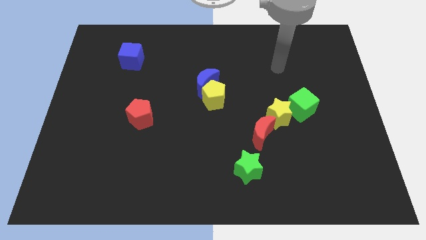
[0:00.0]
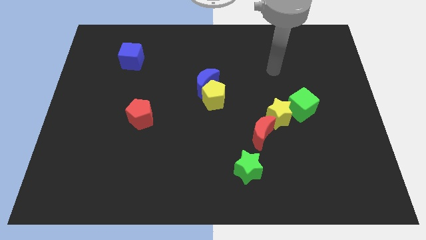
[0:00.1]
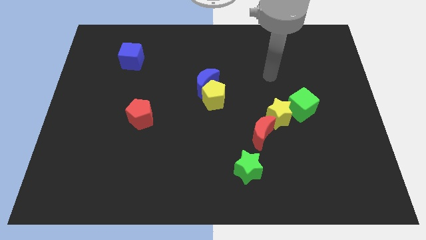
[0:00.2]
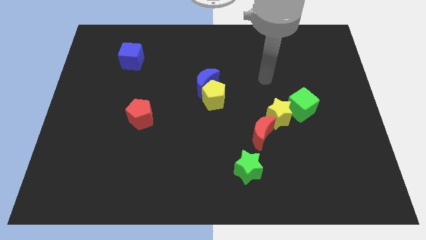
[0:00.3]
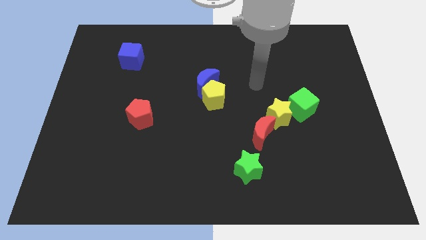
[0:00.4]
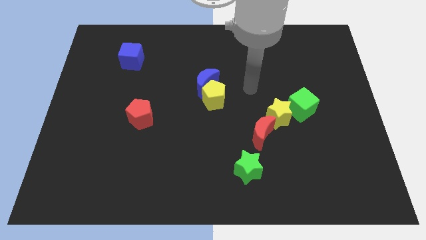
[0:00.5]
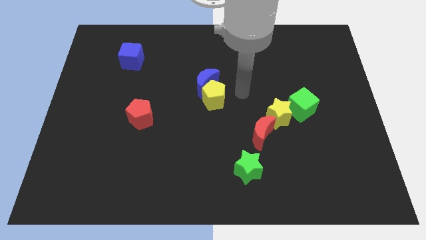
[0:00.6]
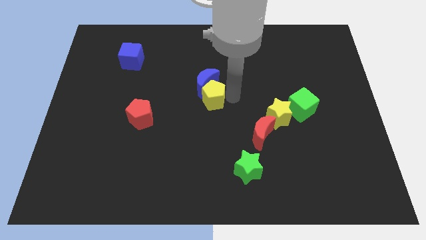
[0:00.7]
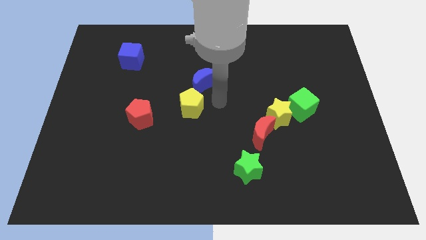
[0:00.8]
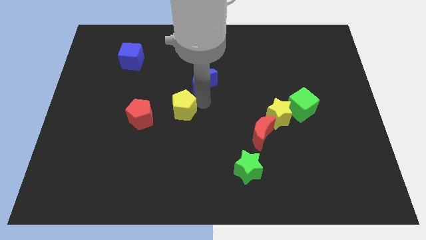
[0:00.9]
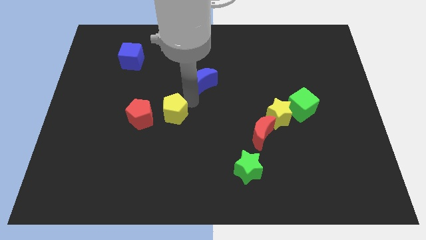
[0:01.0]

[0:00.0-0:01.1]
pull the blue moon apart from the yellow pentagon

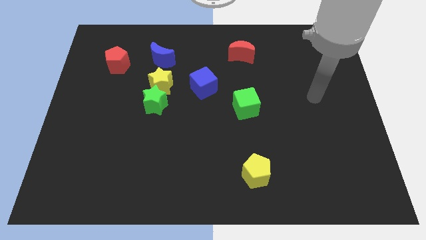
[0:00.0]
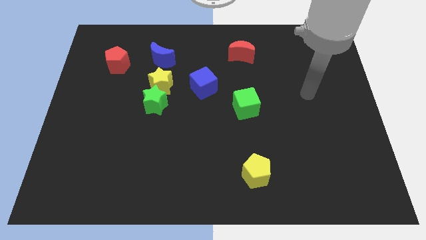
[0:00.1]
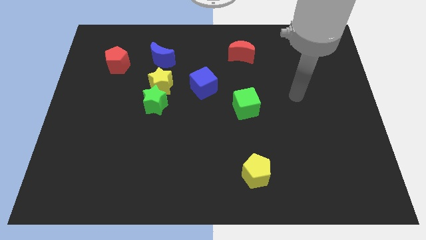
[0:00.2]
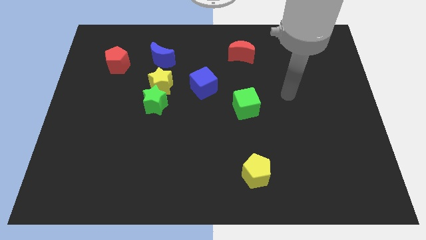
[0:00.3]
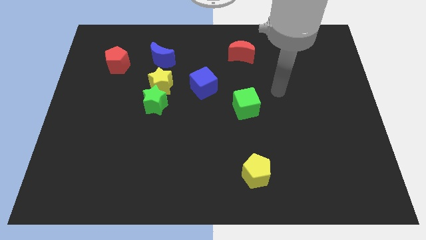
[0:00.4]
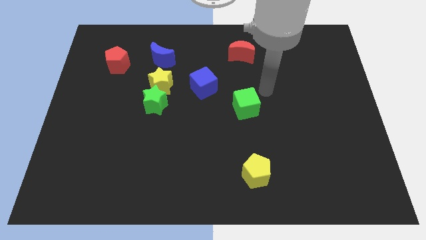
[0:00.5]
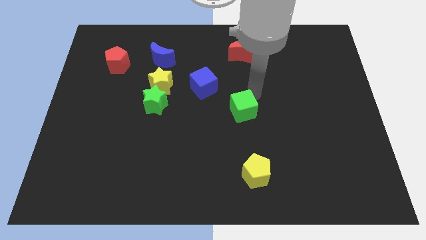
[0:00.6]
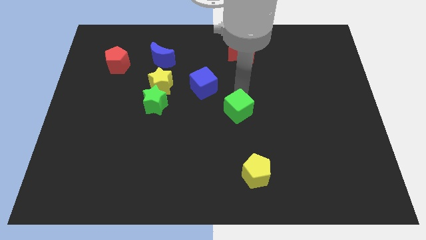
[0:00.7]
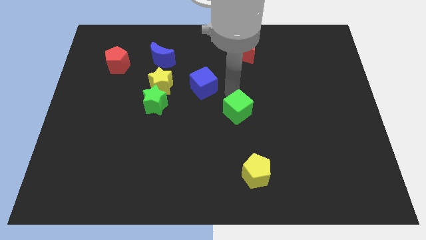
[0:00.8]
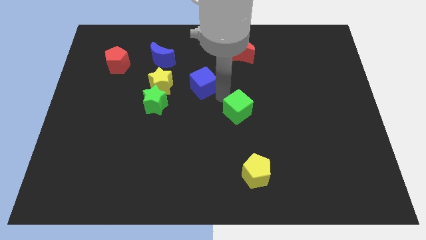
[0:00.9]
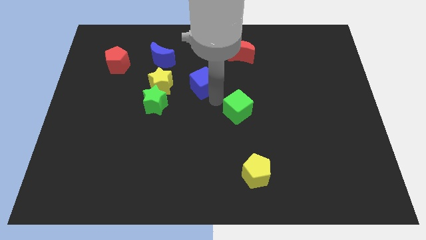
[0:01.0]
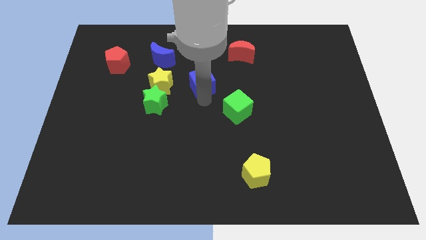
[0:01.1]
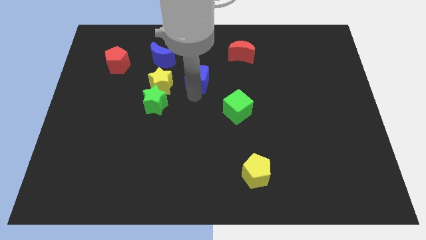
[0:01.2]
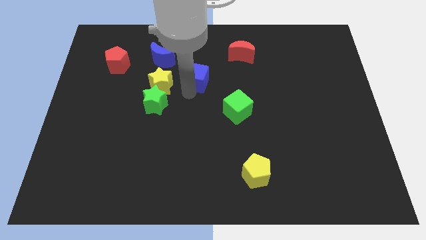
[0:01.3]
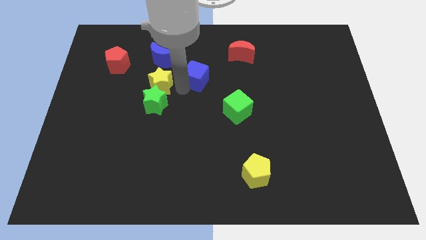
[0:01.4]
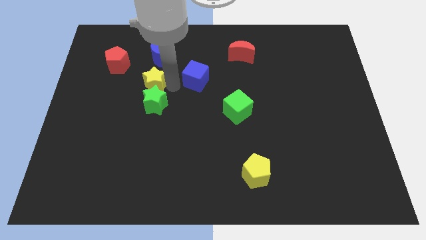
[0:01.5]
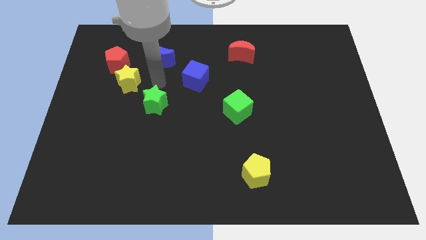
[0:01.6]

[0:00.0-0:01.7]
pull the green star apart from the yellow star

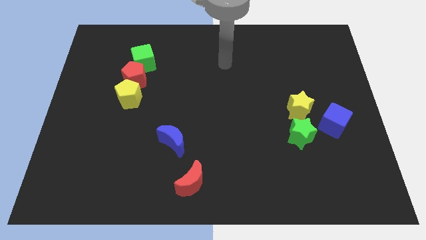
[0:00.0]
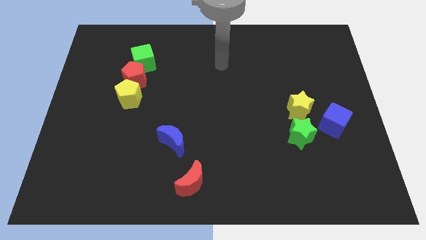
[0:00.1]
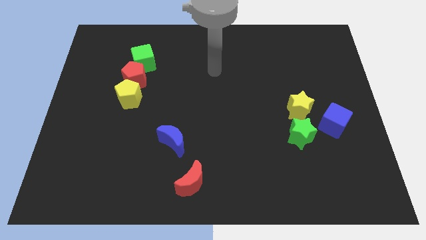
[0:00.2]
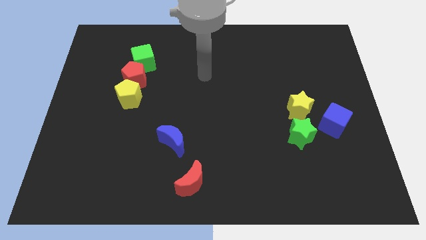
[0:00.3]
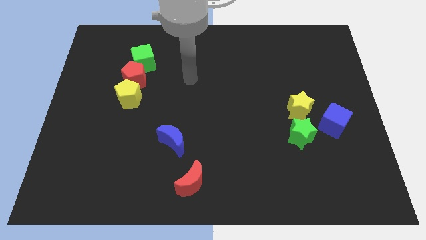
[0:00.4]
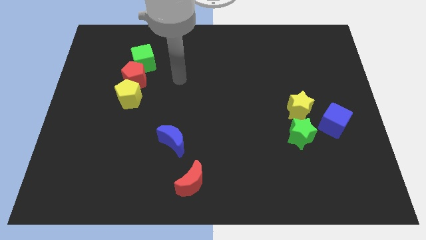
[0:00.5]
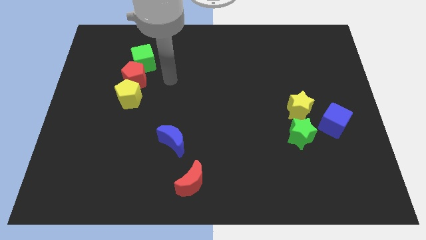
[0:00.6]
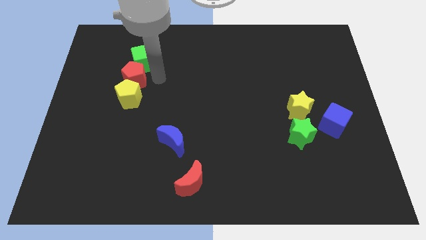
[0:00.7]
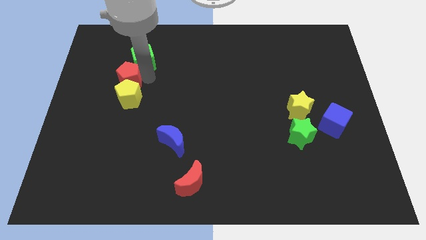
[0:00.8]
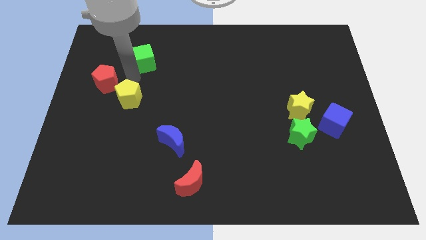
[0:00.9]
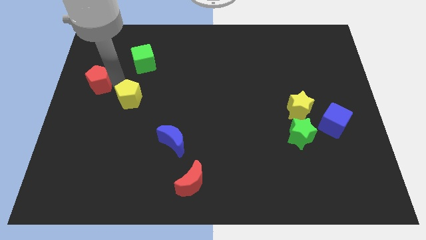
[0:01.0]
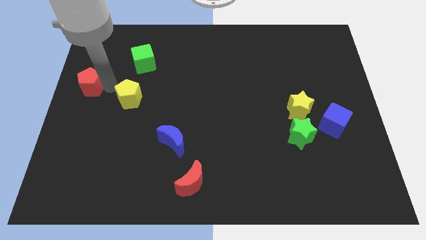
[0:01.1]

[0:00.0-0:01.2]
move the yellow pentagon away from the red pentagon

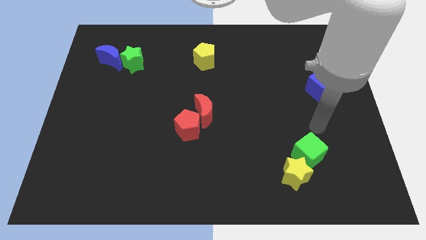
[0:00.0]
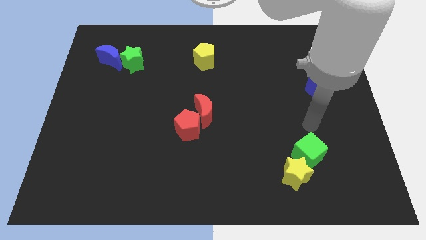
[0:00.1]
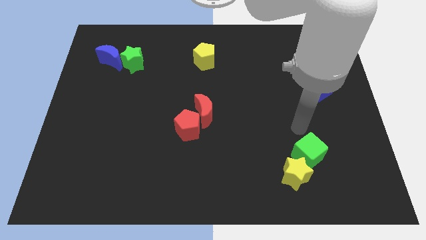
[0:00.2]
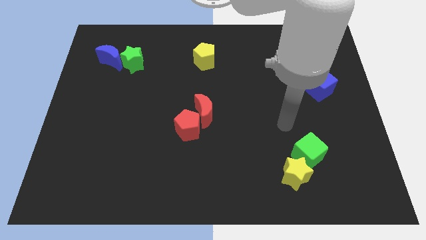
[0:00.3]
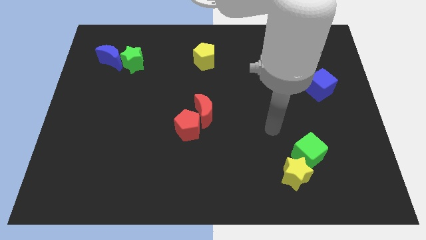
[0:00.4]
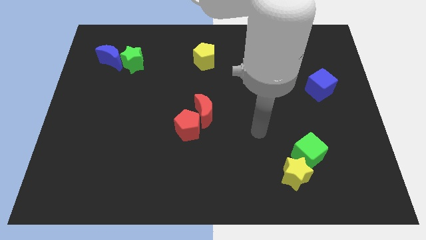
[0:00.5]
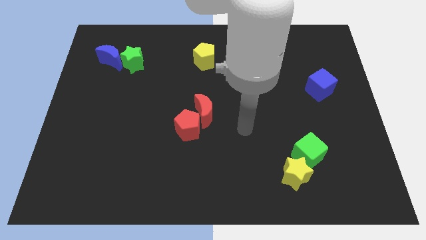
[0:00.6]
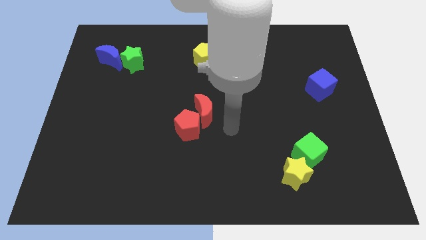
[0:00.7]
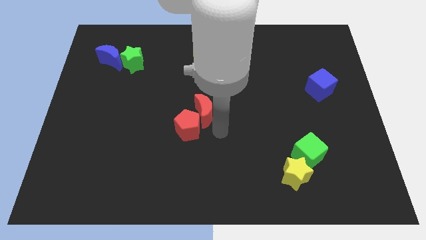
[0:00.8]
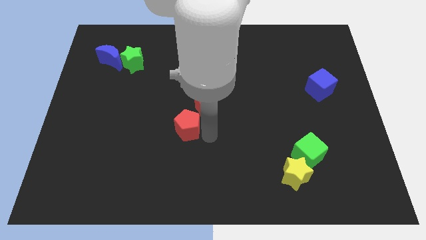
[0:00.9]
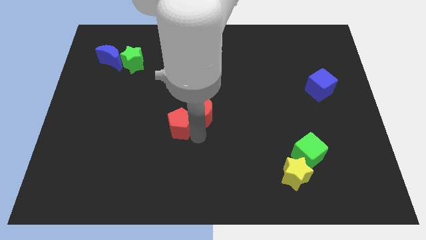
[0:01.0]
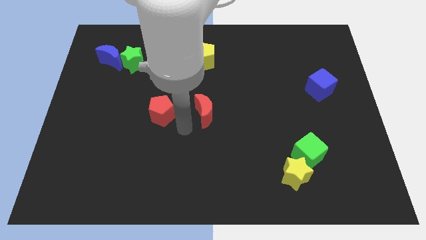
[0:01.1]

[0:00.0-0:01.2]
pull the red moon apart from the red pentagon

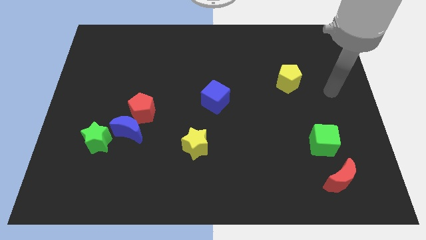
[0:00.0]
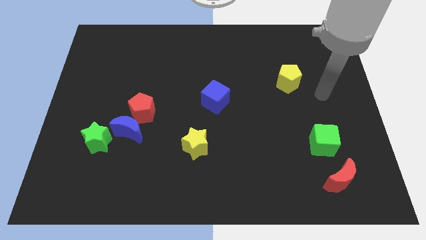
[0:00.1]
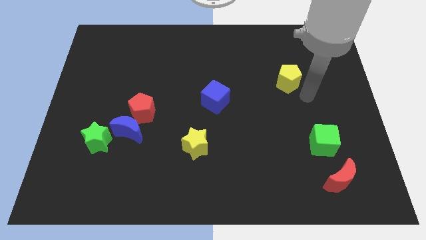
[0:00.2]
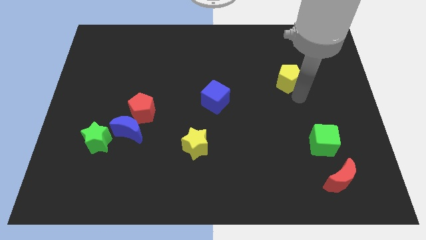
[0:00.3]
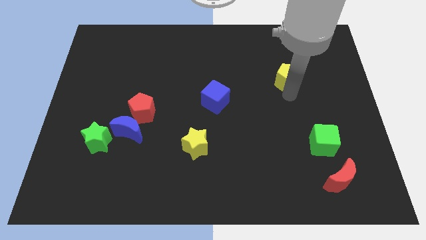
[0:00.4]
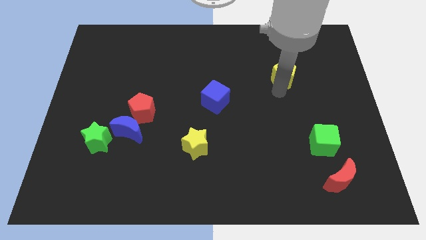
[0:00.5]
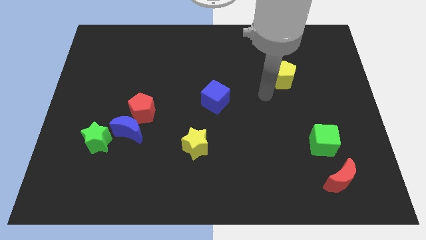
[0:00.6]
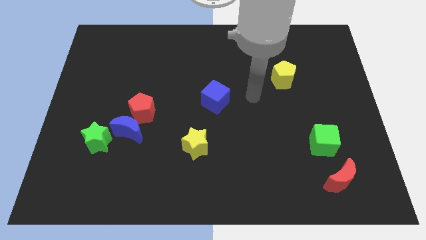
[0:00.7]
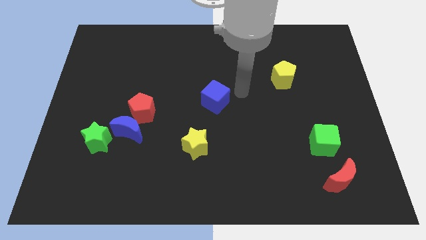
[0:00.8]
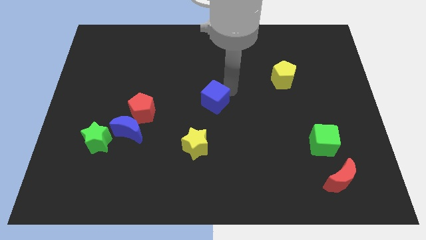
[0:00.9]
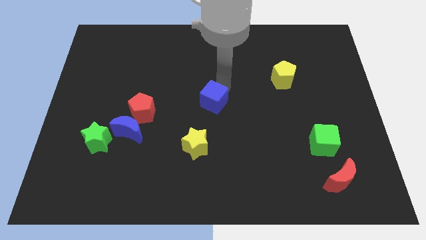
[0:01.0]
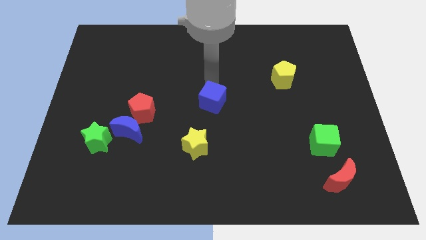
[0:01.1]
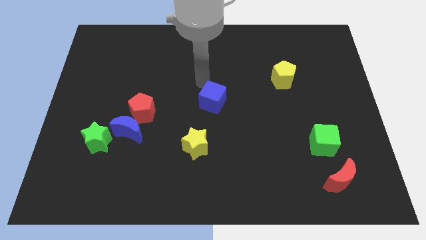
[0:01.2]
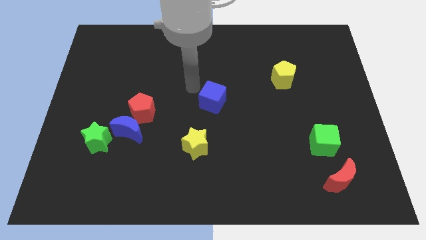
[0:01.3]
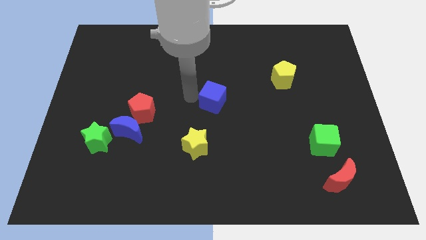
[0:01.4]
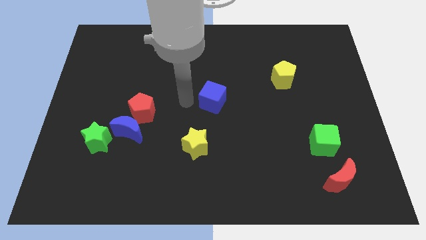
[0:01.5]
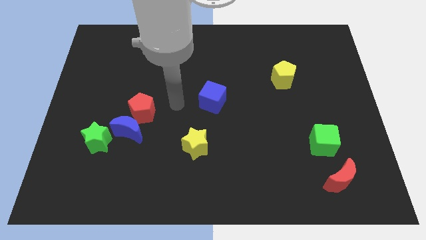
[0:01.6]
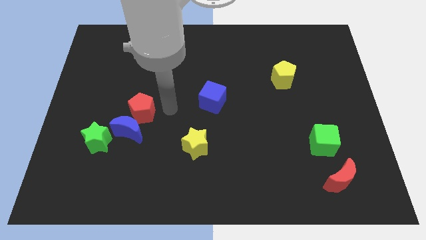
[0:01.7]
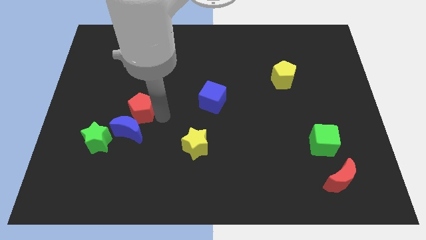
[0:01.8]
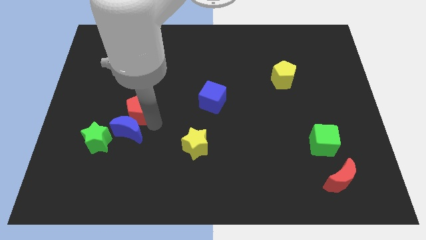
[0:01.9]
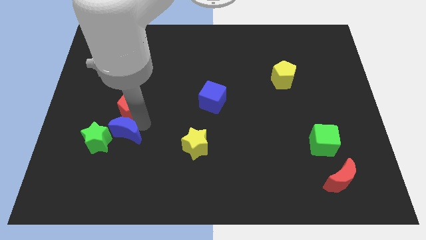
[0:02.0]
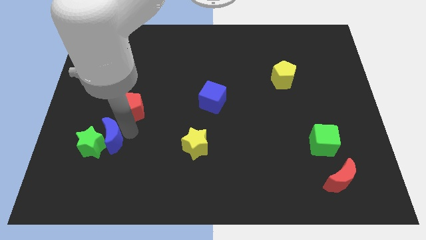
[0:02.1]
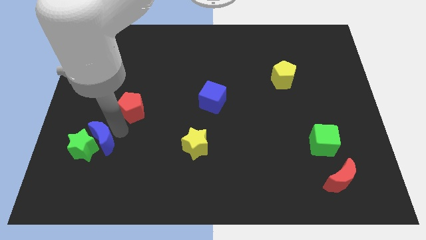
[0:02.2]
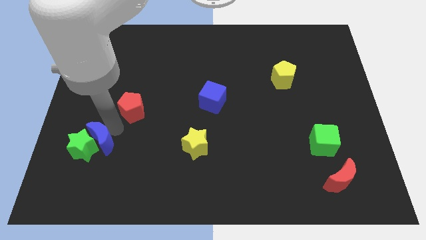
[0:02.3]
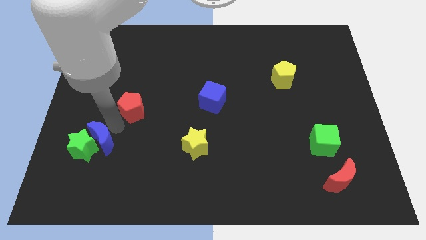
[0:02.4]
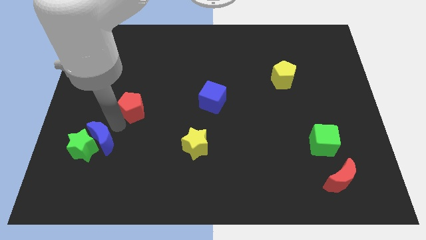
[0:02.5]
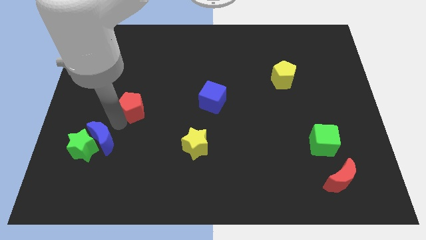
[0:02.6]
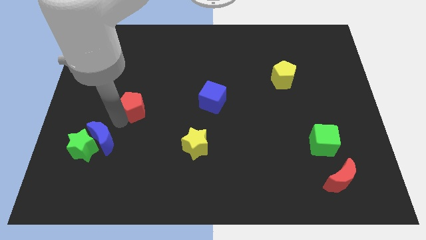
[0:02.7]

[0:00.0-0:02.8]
separate the red pentagon from the blue moon

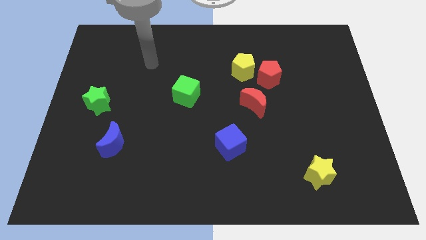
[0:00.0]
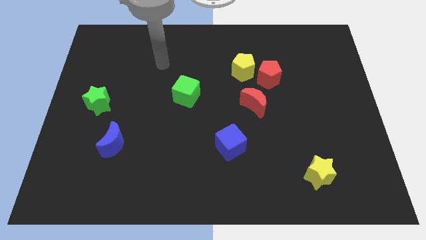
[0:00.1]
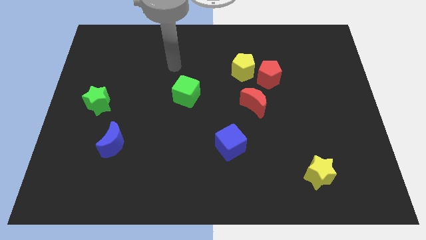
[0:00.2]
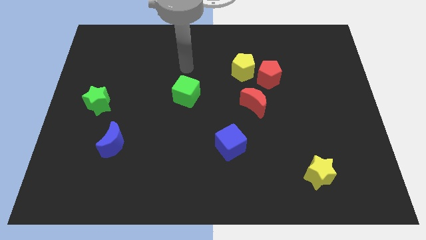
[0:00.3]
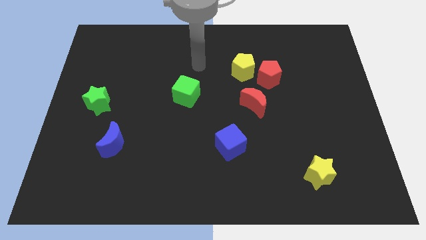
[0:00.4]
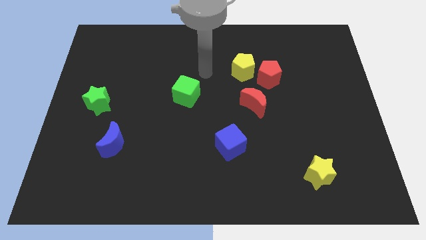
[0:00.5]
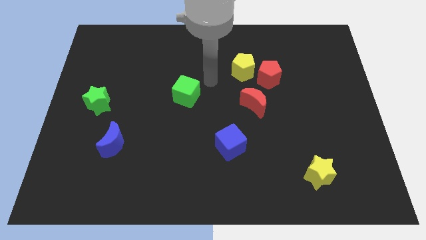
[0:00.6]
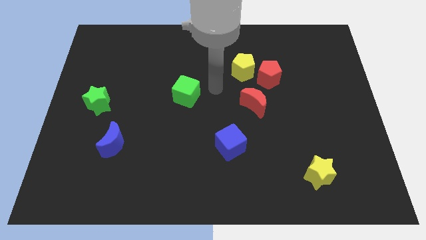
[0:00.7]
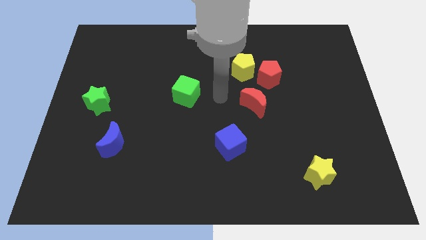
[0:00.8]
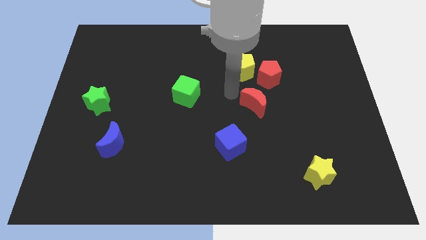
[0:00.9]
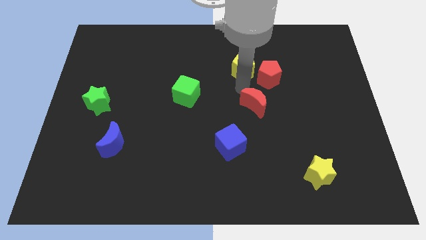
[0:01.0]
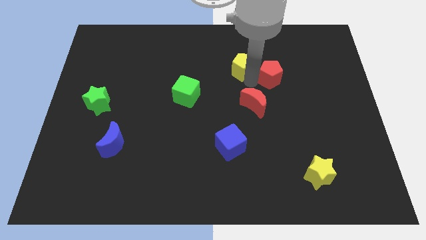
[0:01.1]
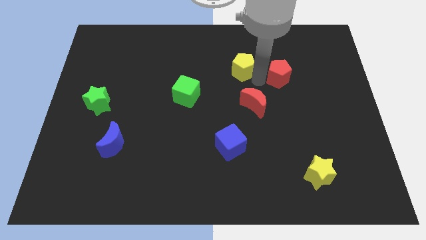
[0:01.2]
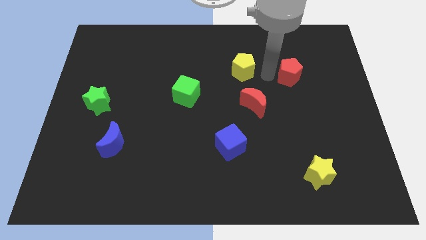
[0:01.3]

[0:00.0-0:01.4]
separate the yellow pentagon from the red pentagon
